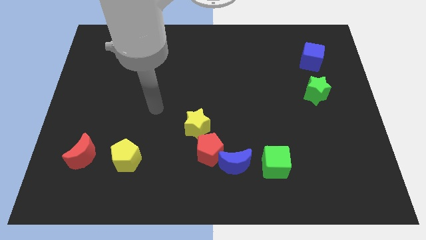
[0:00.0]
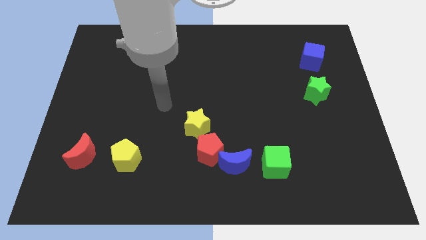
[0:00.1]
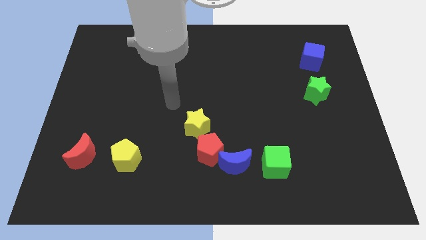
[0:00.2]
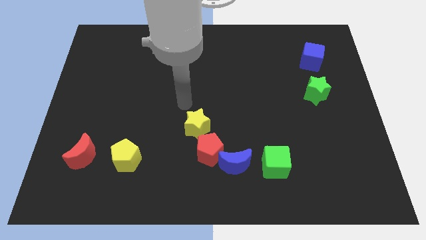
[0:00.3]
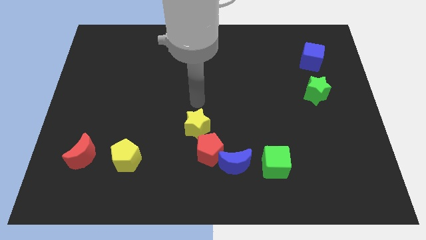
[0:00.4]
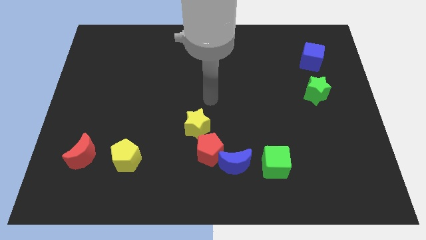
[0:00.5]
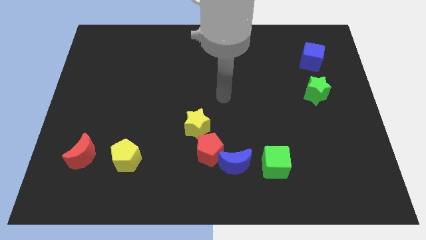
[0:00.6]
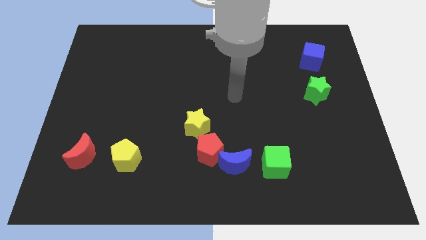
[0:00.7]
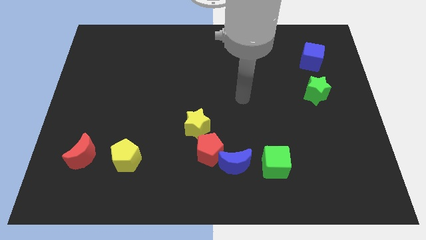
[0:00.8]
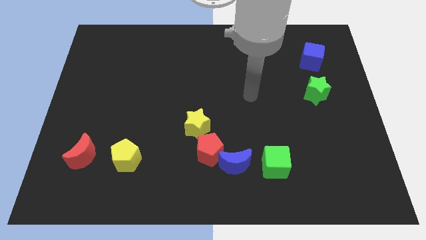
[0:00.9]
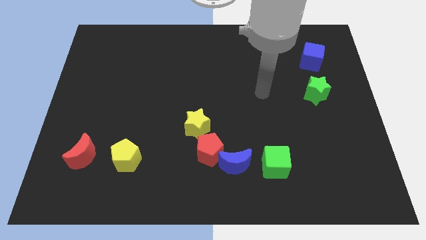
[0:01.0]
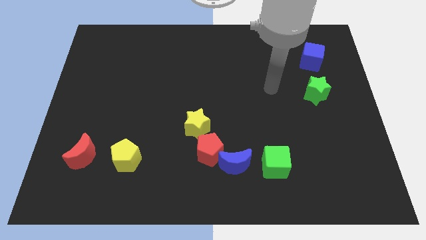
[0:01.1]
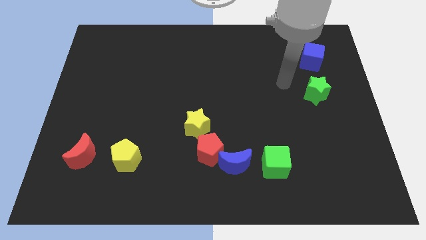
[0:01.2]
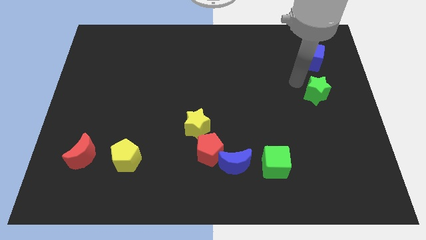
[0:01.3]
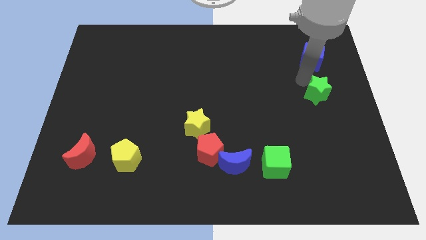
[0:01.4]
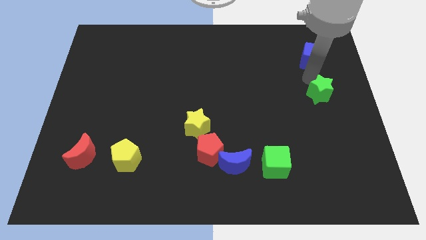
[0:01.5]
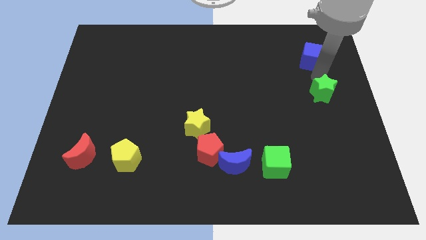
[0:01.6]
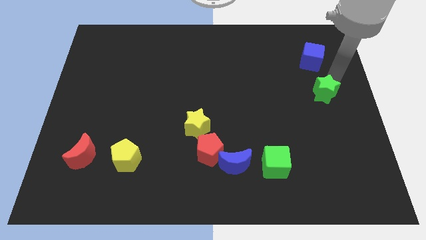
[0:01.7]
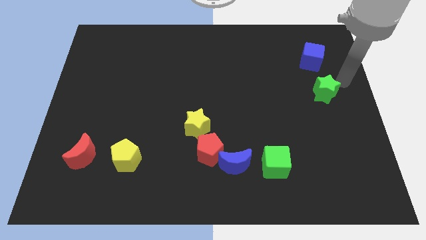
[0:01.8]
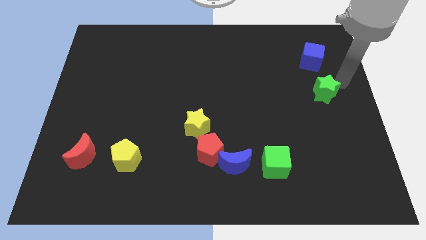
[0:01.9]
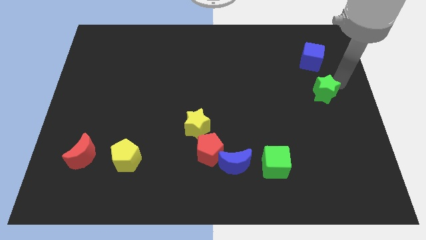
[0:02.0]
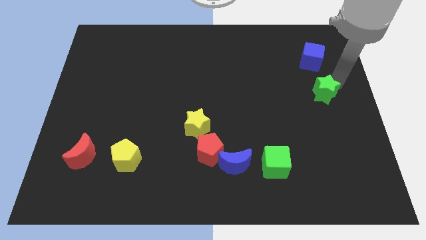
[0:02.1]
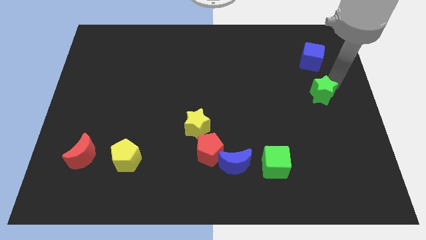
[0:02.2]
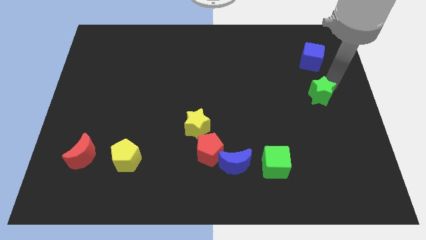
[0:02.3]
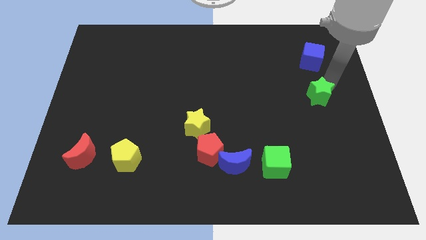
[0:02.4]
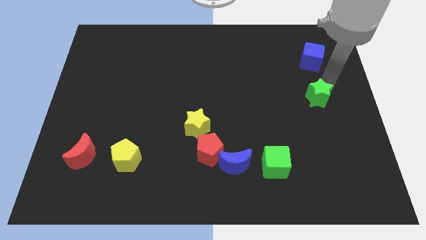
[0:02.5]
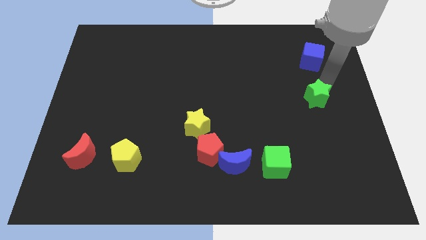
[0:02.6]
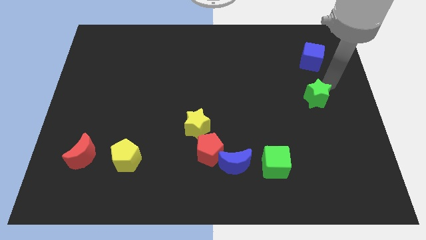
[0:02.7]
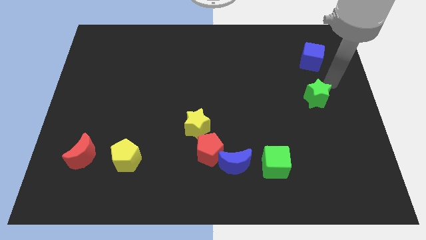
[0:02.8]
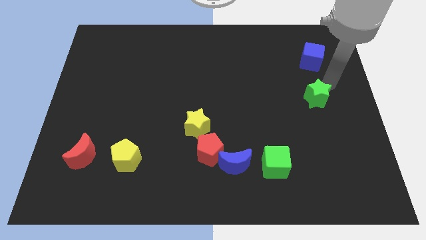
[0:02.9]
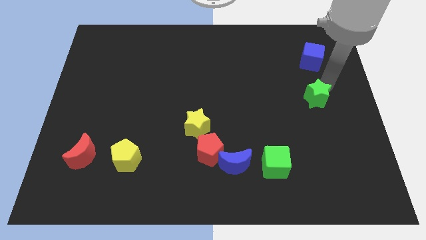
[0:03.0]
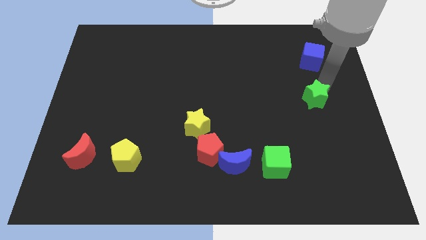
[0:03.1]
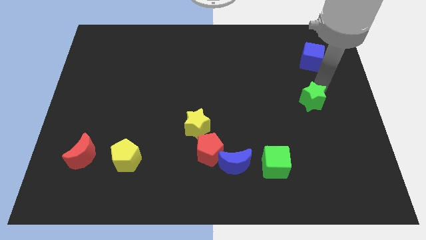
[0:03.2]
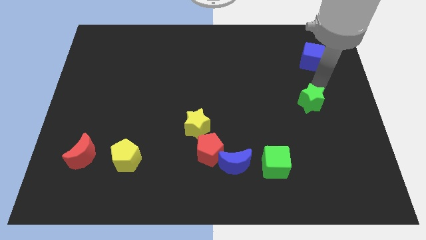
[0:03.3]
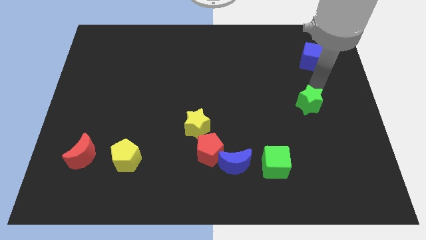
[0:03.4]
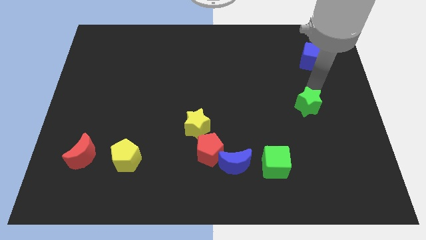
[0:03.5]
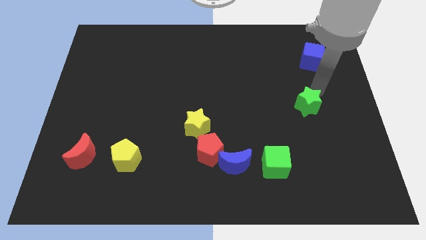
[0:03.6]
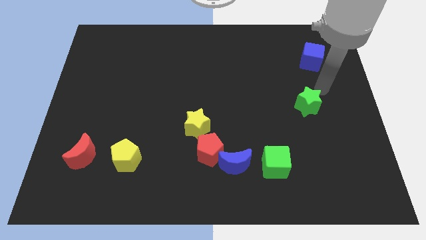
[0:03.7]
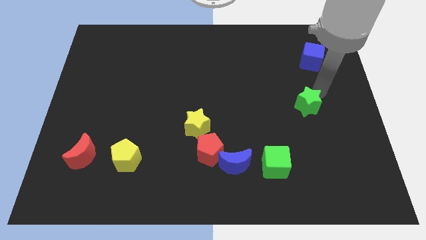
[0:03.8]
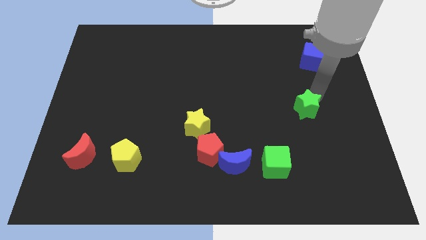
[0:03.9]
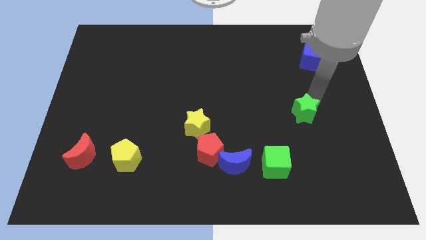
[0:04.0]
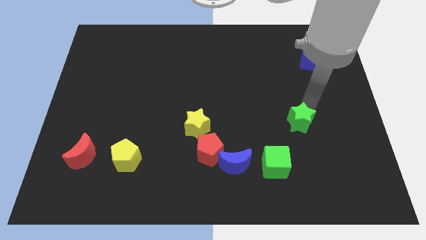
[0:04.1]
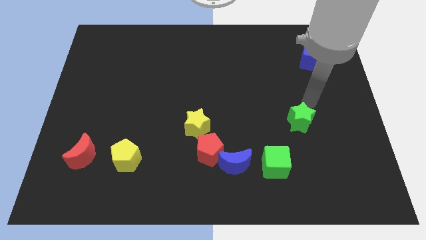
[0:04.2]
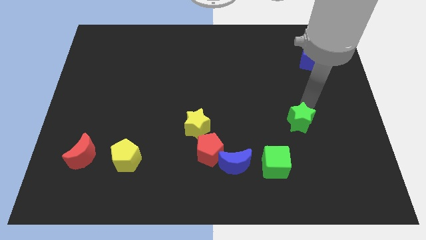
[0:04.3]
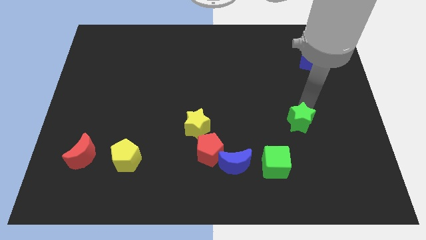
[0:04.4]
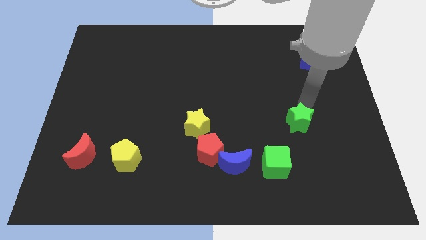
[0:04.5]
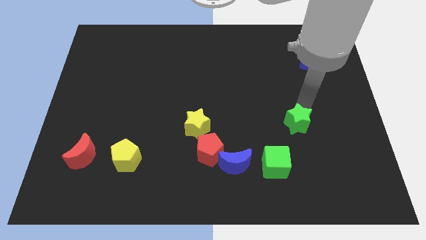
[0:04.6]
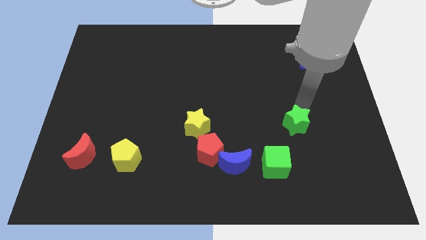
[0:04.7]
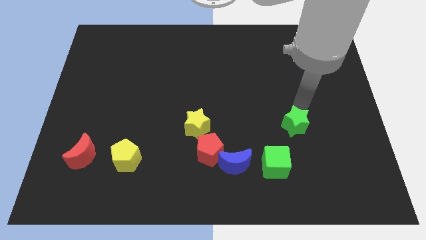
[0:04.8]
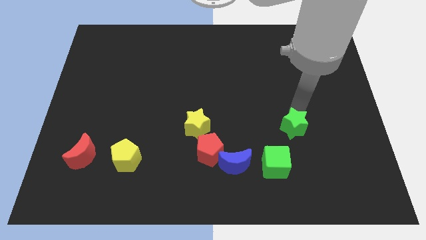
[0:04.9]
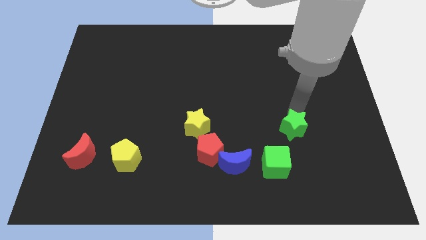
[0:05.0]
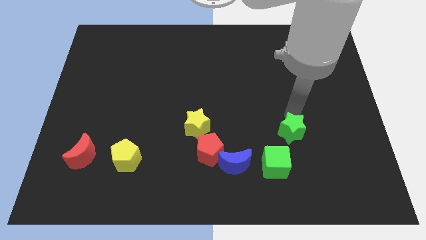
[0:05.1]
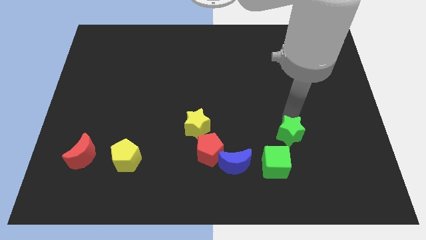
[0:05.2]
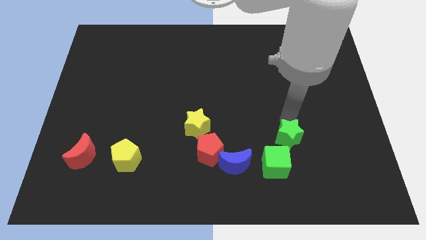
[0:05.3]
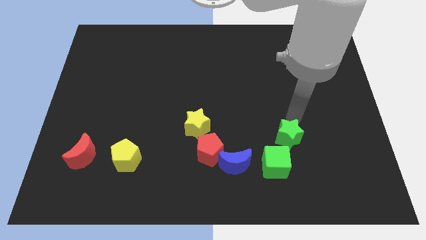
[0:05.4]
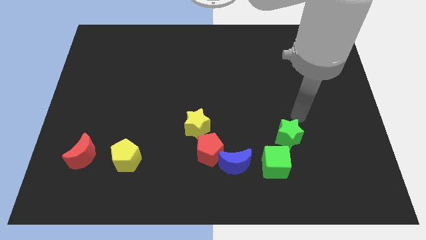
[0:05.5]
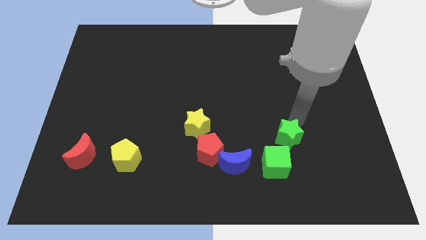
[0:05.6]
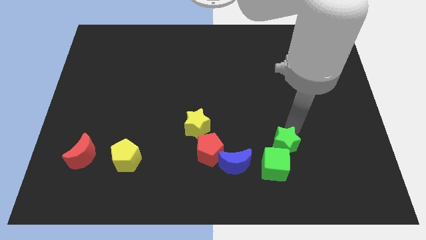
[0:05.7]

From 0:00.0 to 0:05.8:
push the green star towards the green cube
